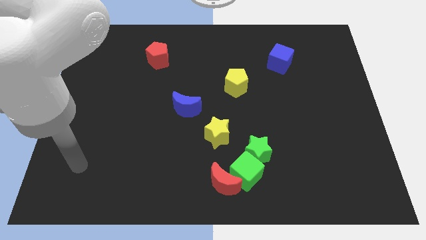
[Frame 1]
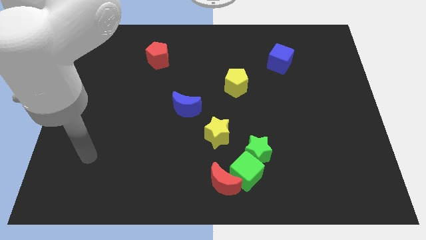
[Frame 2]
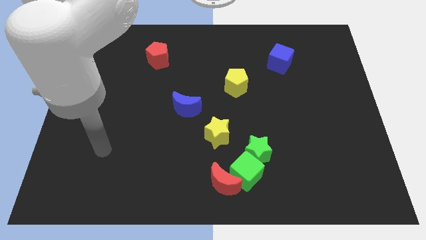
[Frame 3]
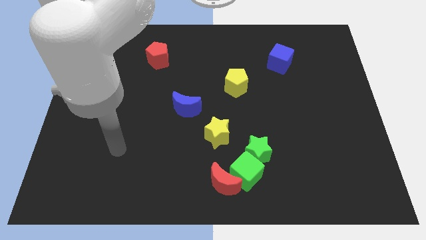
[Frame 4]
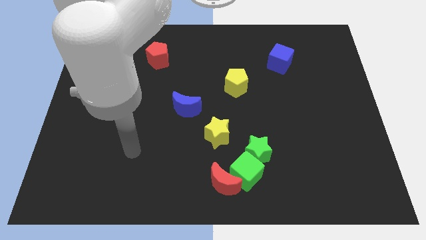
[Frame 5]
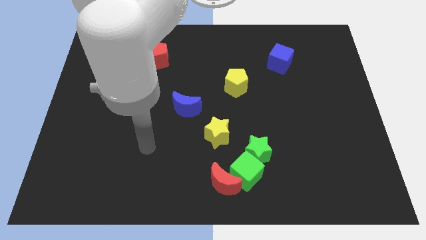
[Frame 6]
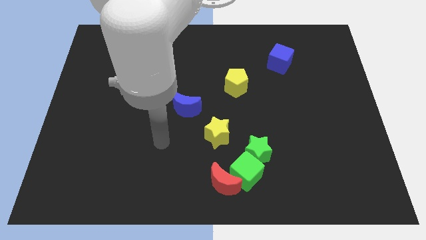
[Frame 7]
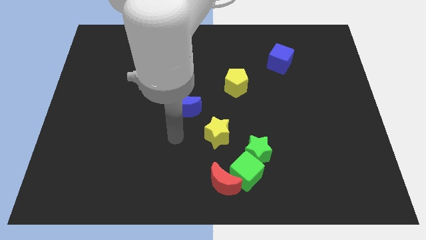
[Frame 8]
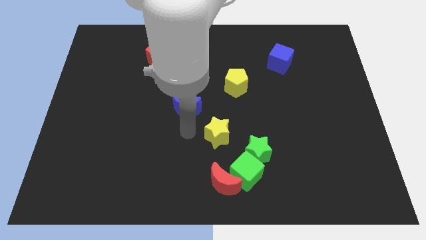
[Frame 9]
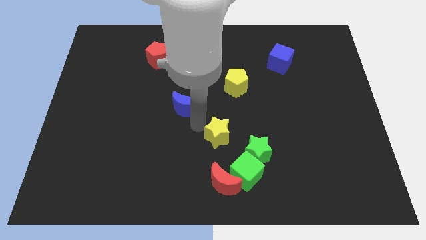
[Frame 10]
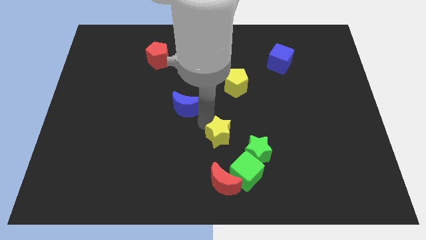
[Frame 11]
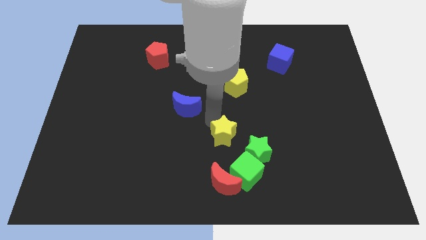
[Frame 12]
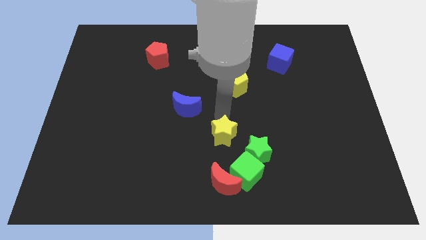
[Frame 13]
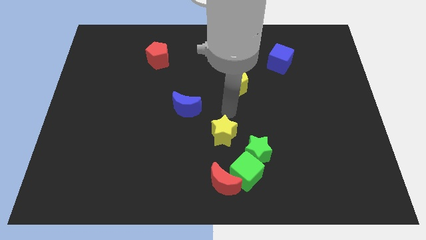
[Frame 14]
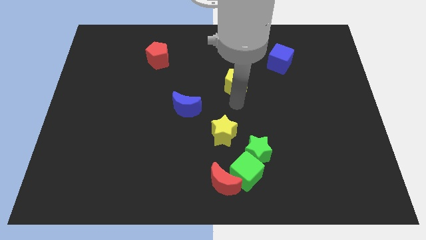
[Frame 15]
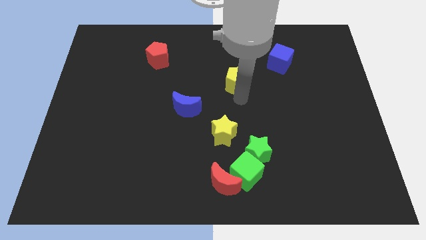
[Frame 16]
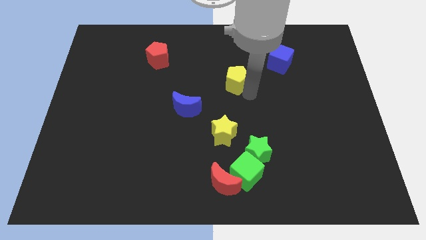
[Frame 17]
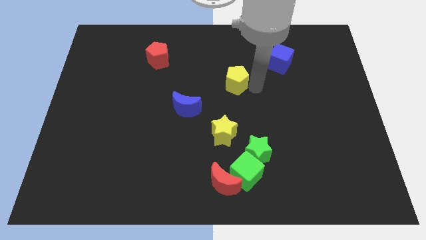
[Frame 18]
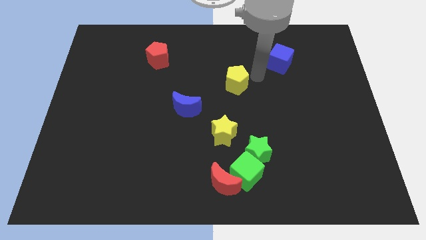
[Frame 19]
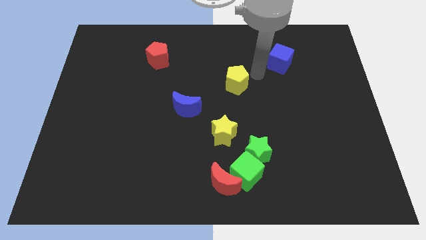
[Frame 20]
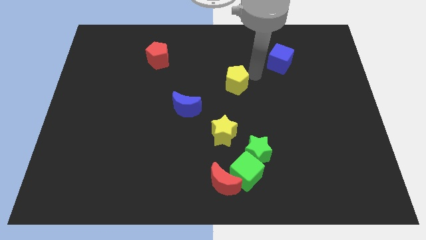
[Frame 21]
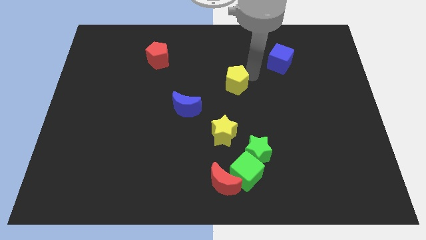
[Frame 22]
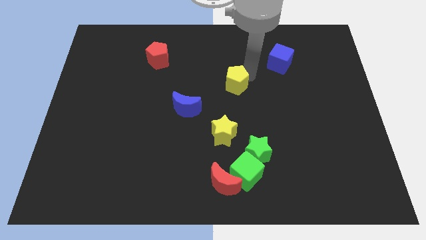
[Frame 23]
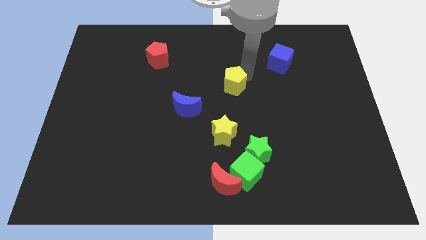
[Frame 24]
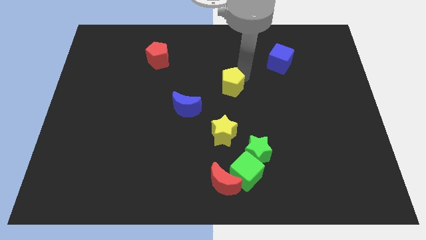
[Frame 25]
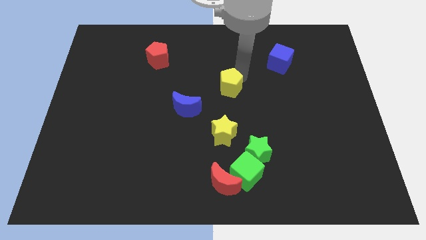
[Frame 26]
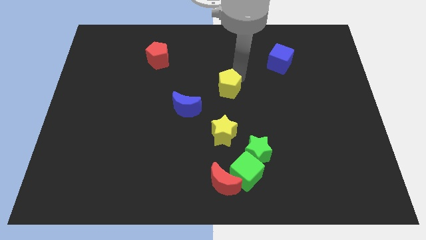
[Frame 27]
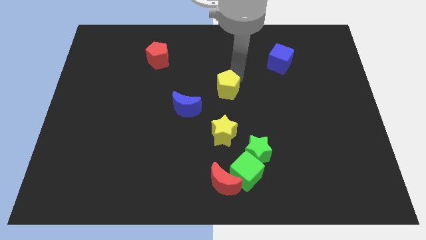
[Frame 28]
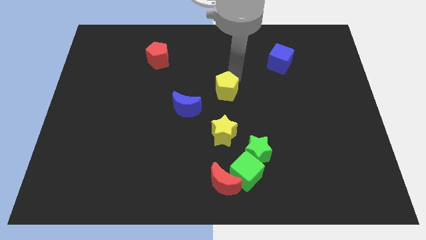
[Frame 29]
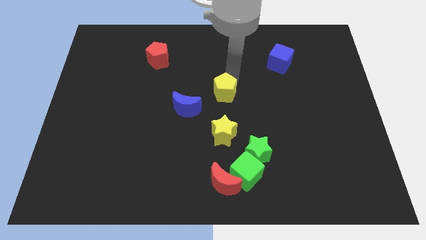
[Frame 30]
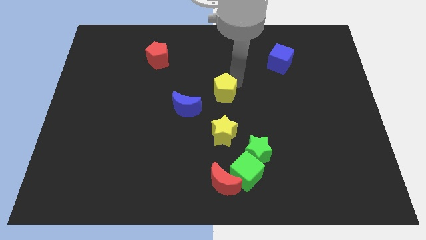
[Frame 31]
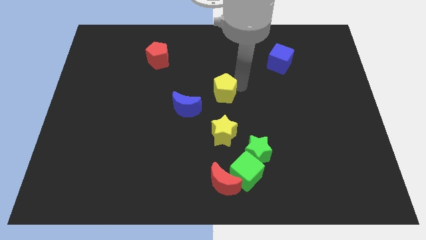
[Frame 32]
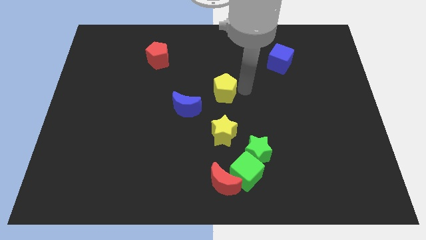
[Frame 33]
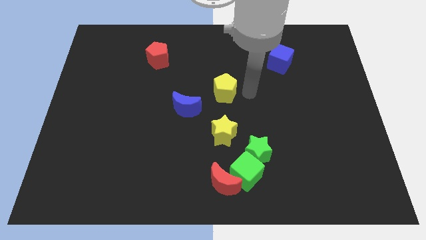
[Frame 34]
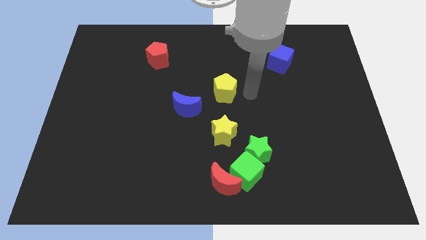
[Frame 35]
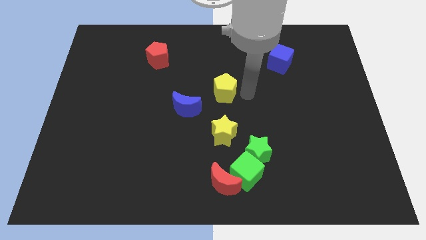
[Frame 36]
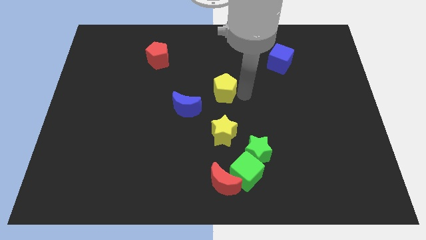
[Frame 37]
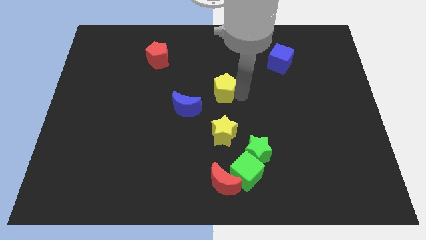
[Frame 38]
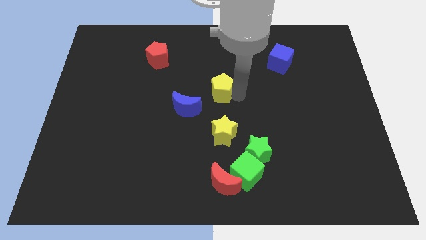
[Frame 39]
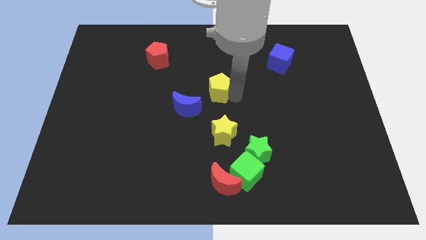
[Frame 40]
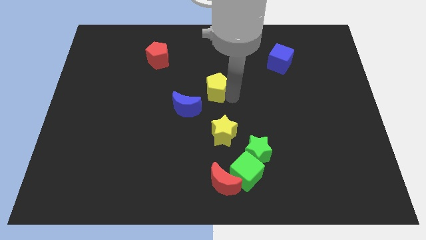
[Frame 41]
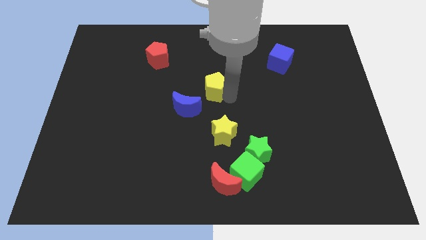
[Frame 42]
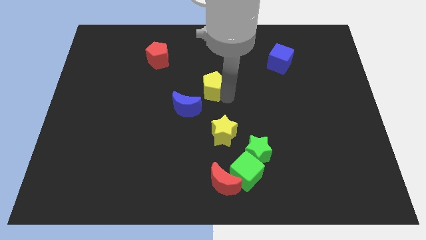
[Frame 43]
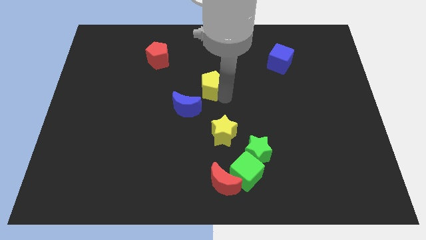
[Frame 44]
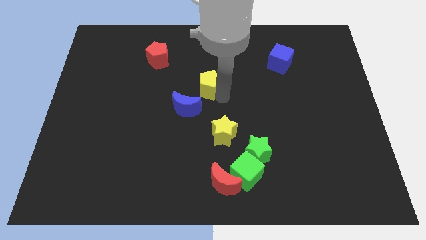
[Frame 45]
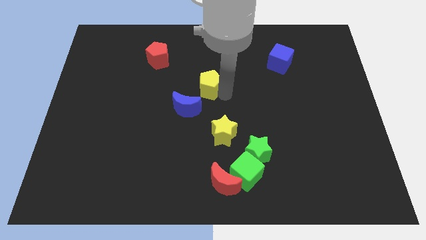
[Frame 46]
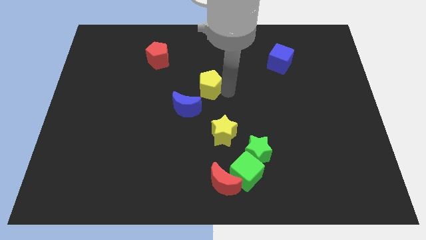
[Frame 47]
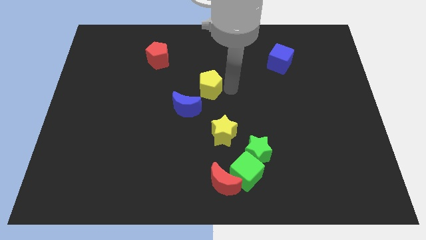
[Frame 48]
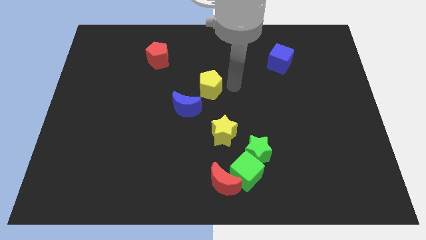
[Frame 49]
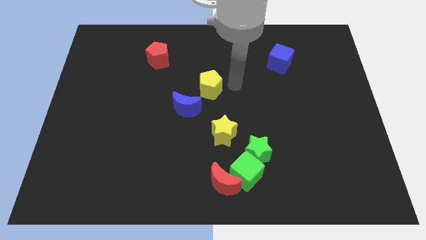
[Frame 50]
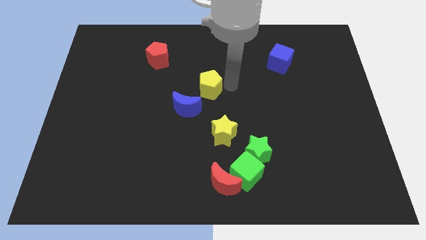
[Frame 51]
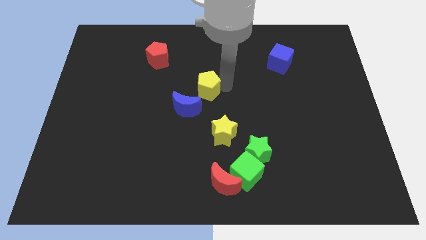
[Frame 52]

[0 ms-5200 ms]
slide the yellow pentagon a little left

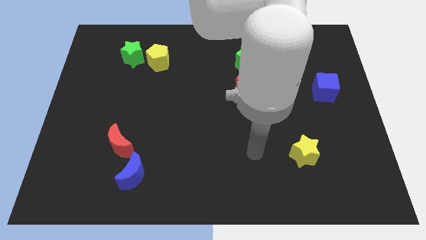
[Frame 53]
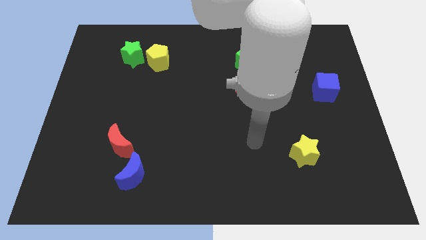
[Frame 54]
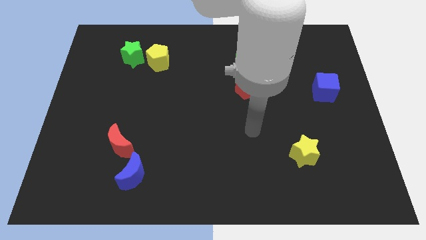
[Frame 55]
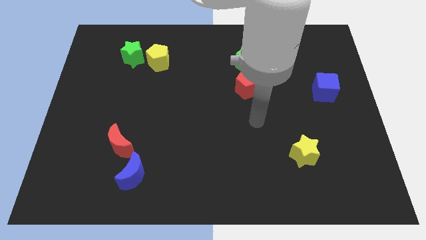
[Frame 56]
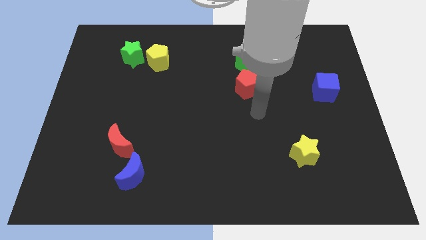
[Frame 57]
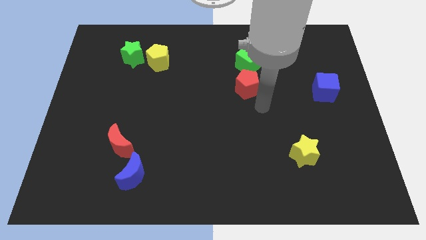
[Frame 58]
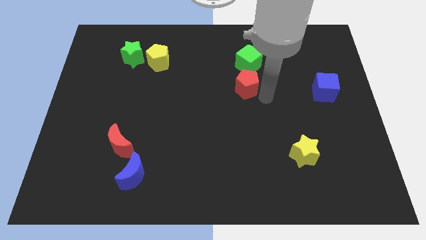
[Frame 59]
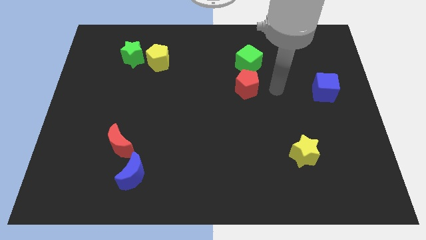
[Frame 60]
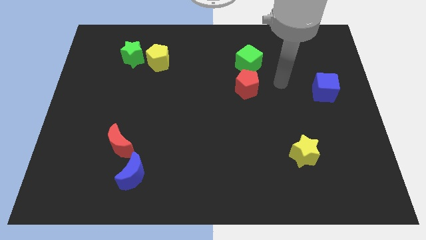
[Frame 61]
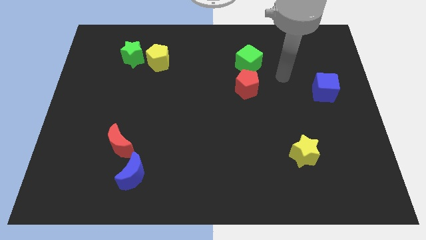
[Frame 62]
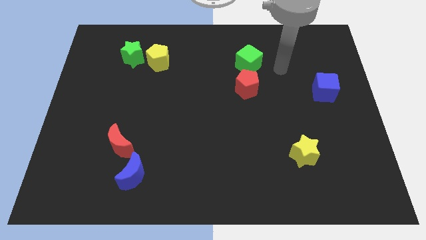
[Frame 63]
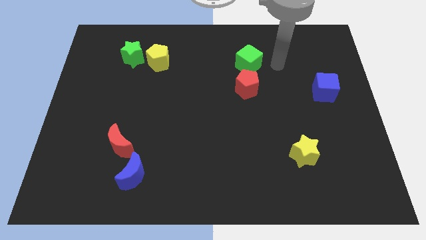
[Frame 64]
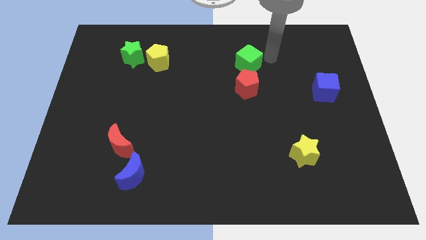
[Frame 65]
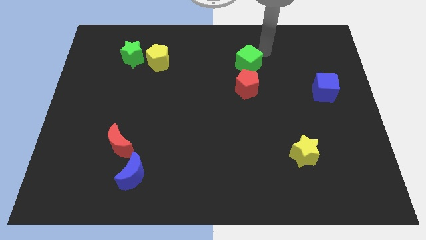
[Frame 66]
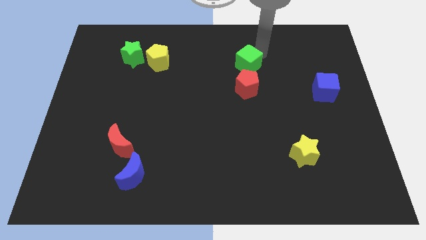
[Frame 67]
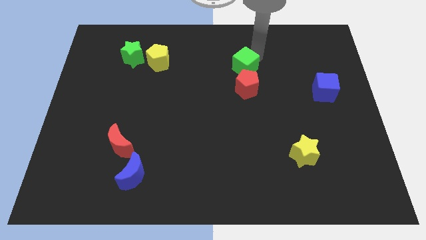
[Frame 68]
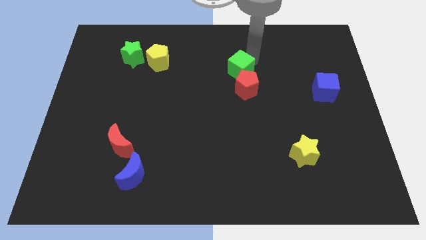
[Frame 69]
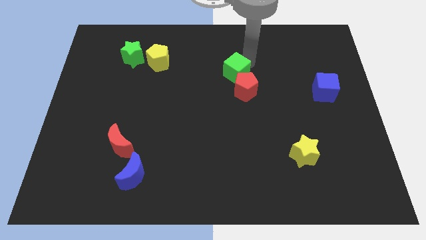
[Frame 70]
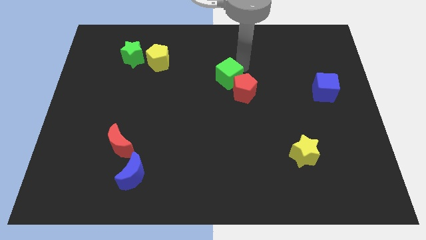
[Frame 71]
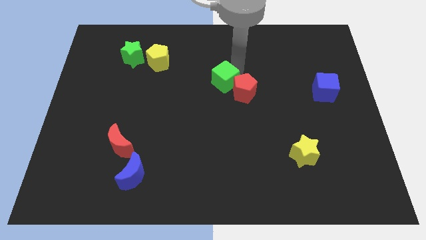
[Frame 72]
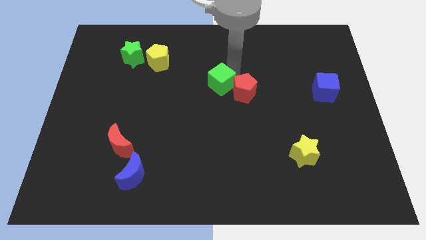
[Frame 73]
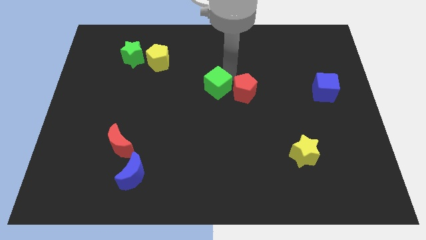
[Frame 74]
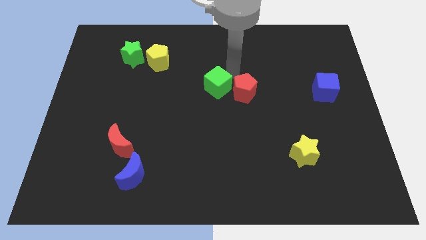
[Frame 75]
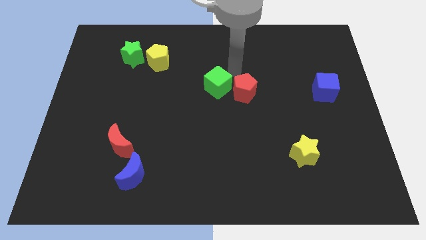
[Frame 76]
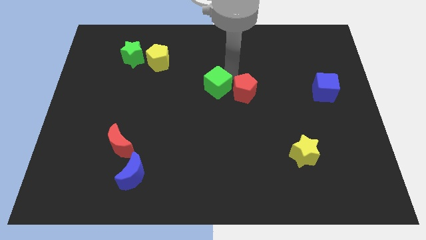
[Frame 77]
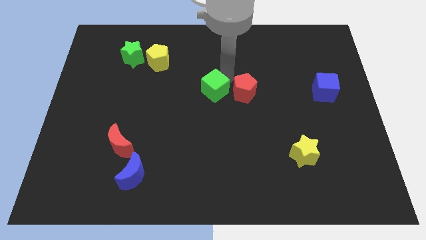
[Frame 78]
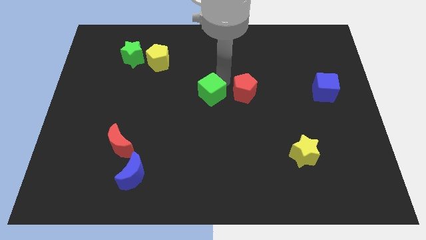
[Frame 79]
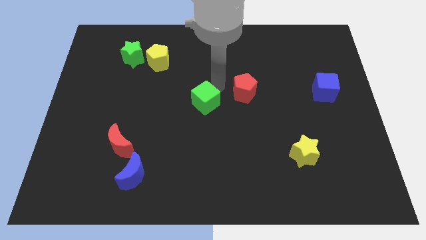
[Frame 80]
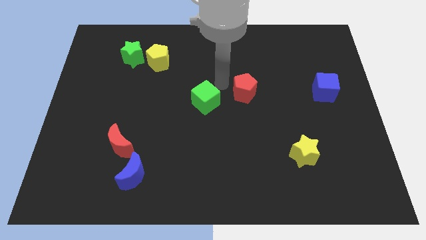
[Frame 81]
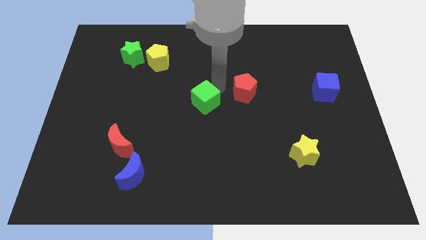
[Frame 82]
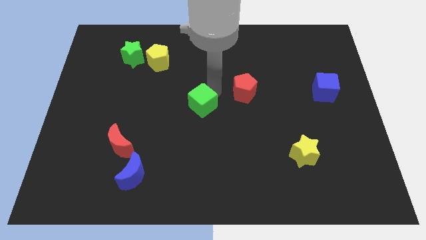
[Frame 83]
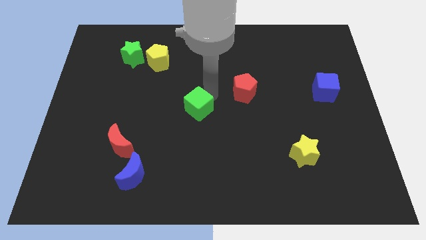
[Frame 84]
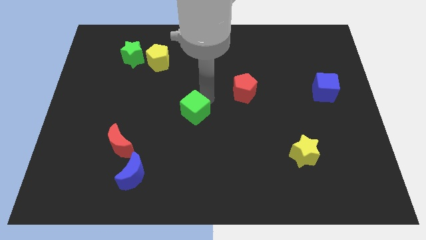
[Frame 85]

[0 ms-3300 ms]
move the green cube diagonally downwards and to the left
